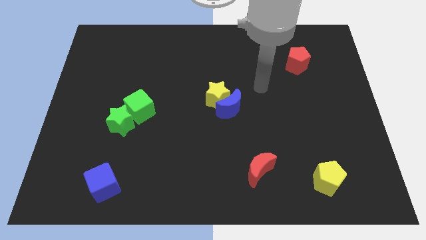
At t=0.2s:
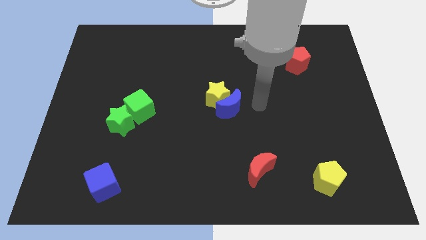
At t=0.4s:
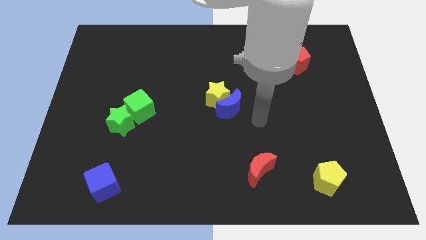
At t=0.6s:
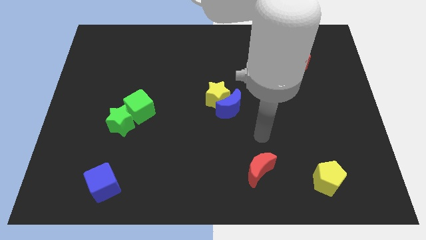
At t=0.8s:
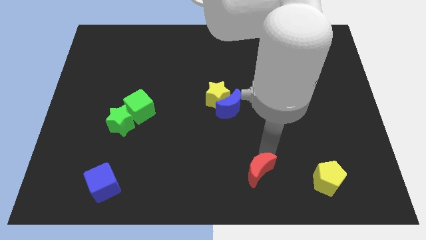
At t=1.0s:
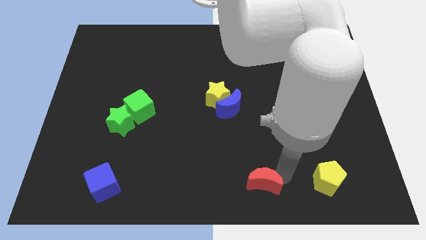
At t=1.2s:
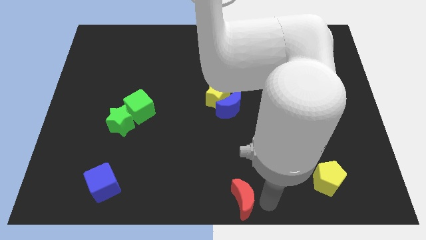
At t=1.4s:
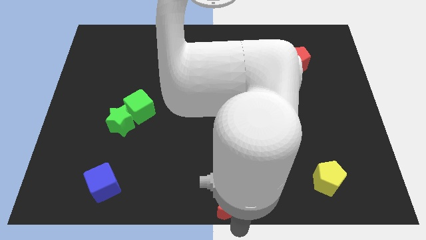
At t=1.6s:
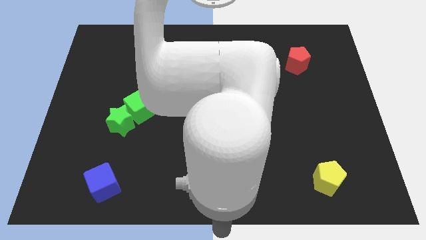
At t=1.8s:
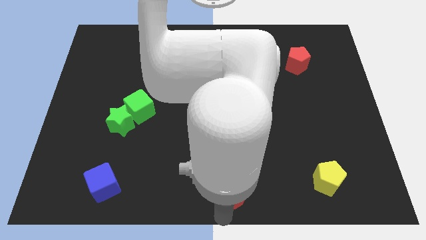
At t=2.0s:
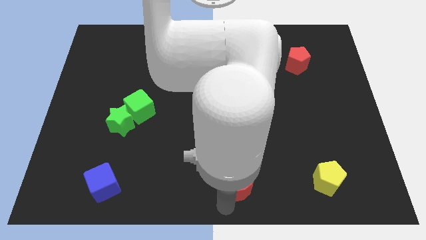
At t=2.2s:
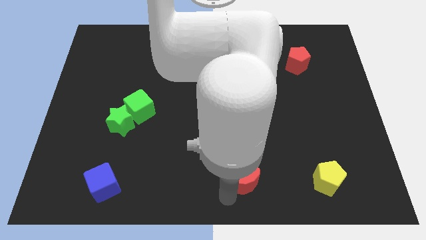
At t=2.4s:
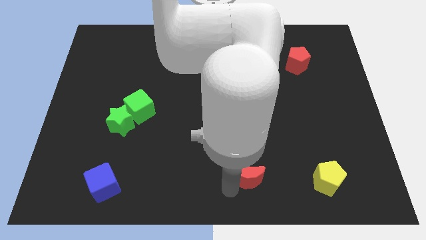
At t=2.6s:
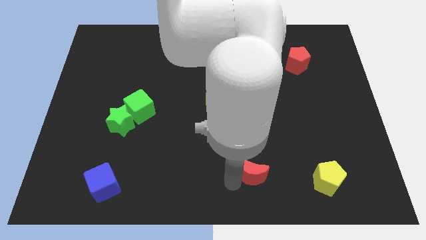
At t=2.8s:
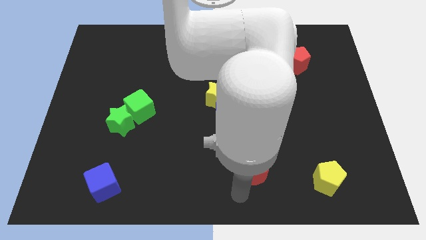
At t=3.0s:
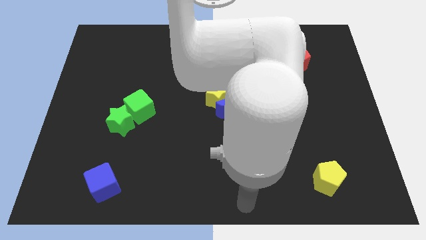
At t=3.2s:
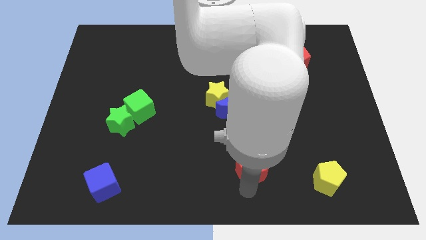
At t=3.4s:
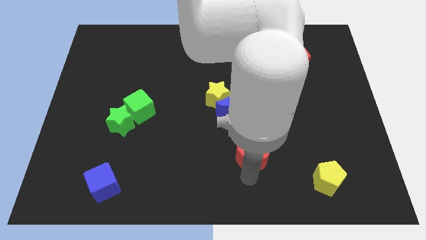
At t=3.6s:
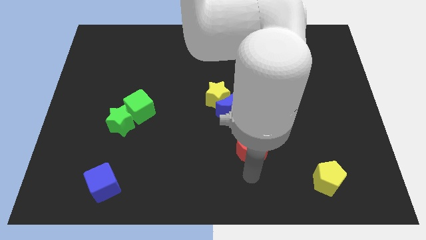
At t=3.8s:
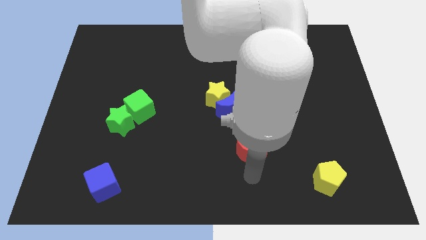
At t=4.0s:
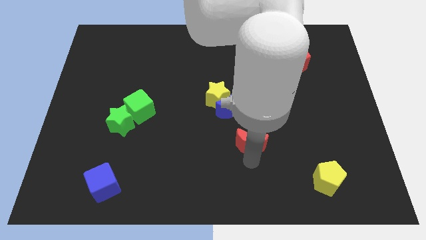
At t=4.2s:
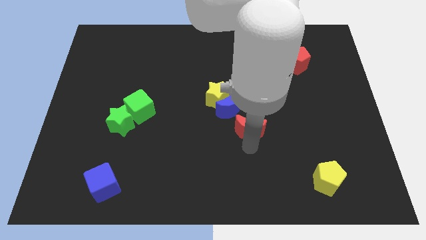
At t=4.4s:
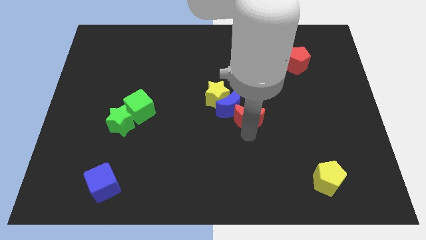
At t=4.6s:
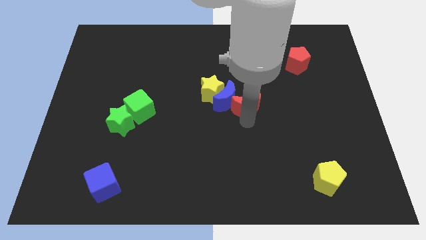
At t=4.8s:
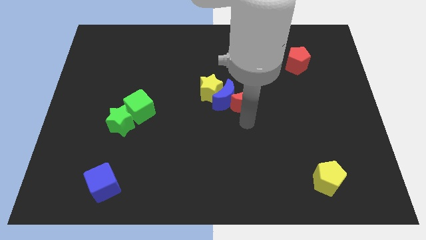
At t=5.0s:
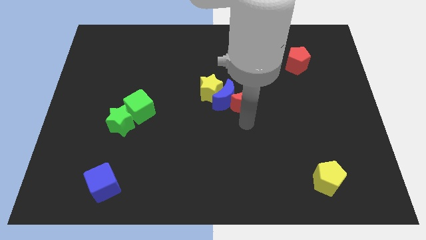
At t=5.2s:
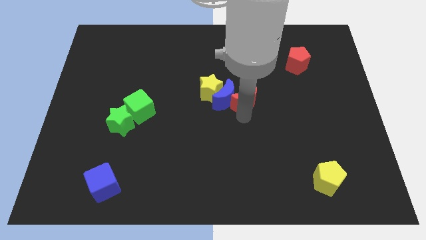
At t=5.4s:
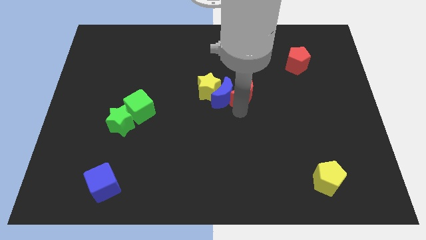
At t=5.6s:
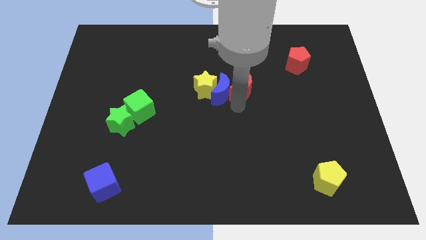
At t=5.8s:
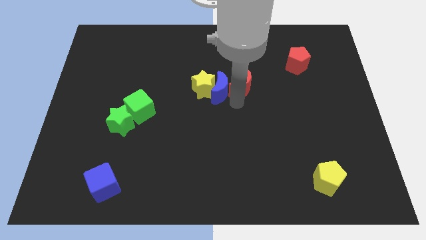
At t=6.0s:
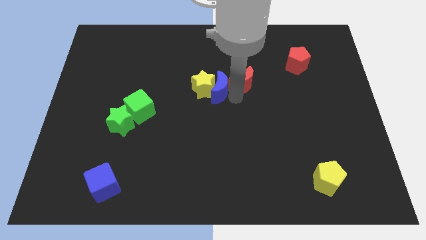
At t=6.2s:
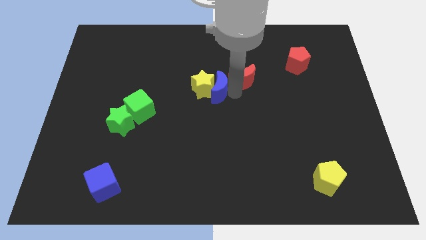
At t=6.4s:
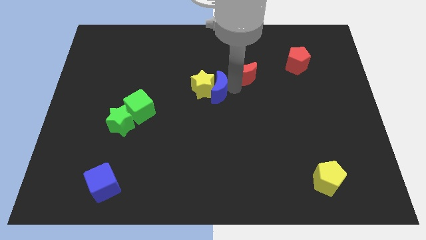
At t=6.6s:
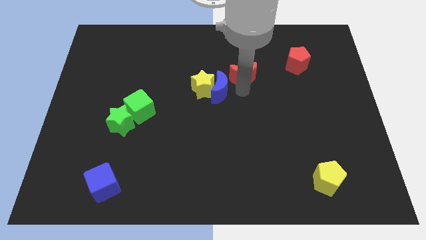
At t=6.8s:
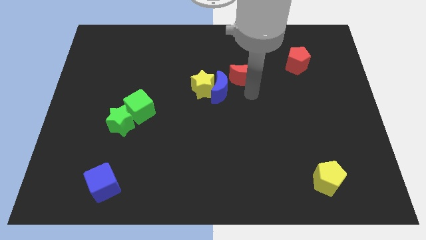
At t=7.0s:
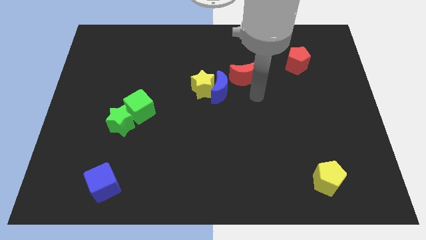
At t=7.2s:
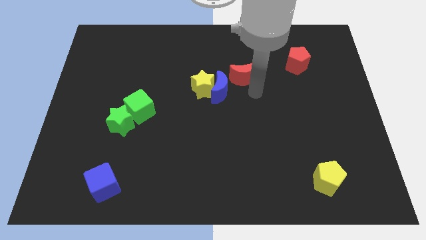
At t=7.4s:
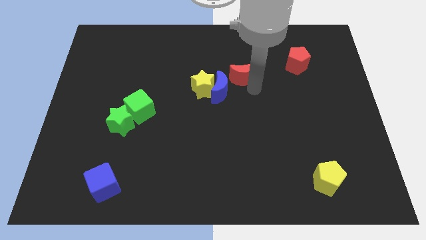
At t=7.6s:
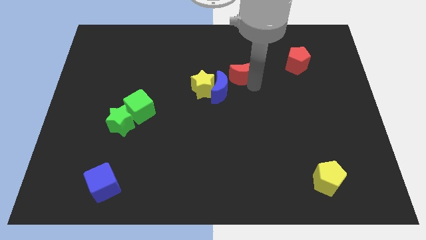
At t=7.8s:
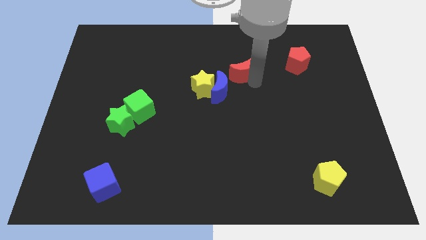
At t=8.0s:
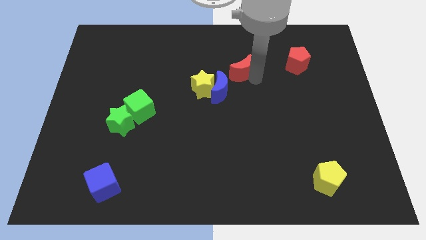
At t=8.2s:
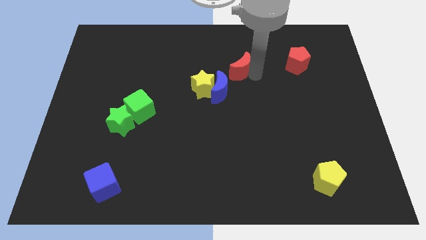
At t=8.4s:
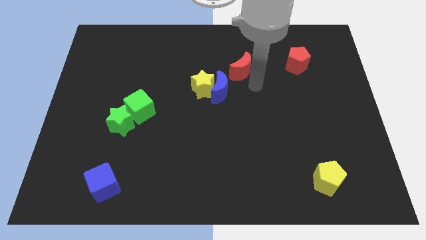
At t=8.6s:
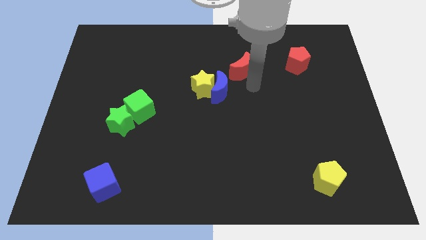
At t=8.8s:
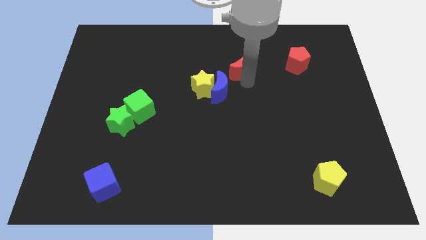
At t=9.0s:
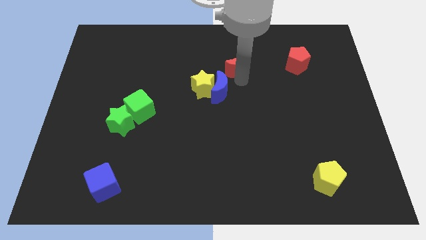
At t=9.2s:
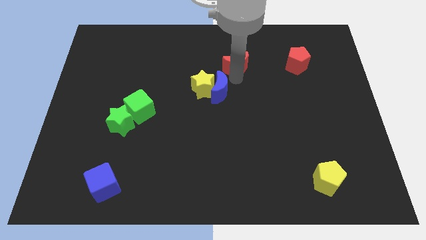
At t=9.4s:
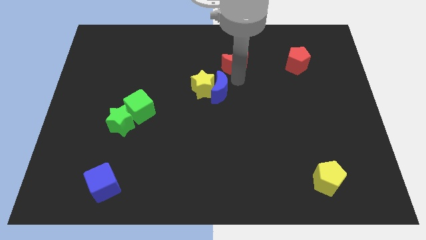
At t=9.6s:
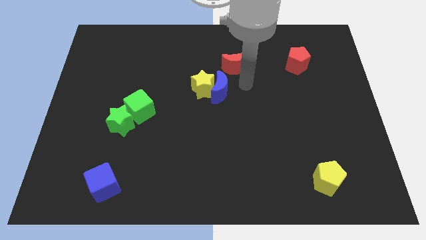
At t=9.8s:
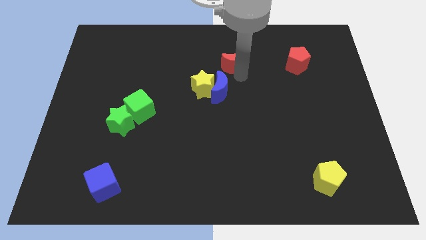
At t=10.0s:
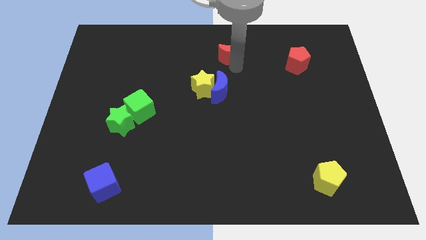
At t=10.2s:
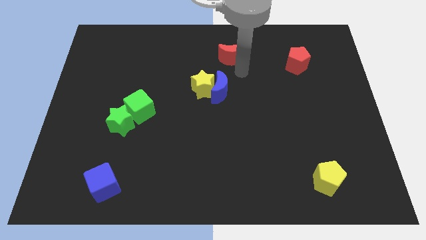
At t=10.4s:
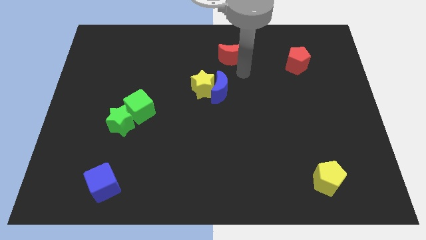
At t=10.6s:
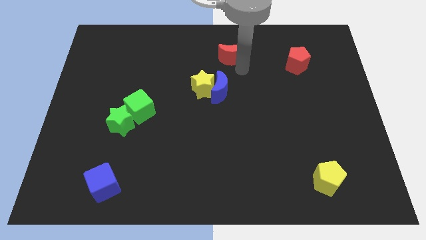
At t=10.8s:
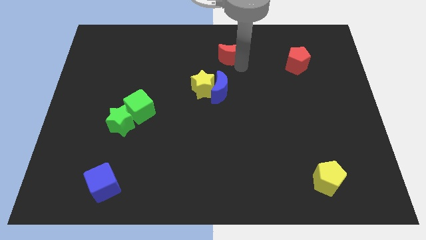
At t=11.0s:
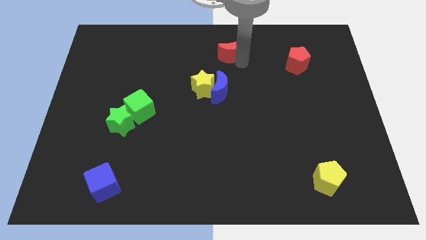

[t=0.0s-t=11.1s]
move the red moon to the top side
